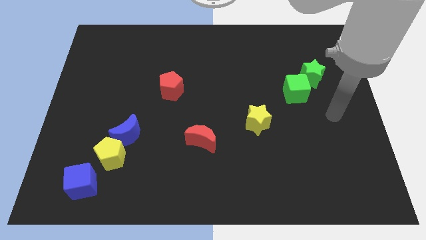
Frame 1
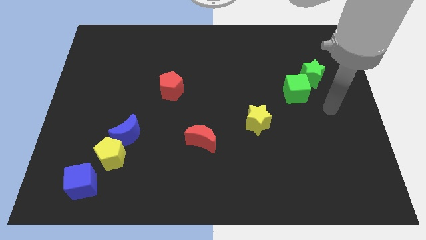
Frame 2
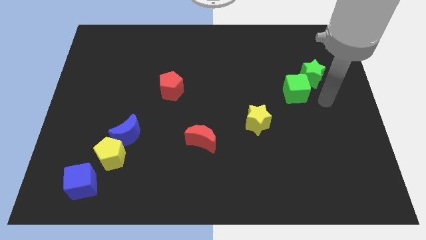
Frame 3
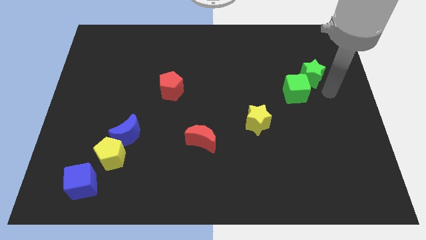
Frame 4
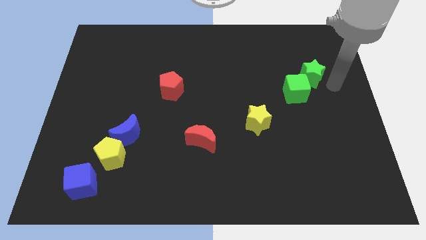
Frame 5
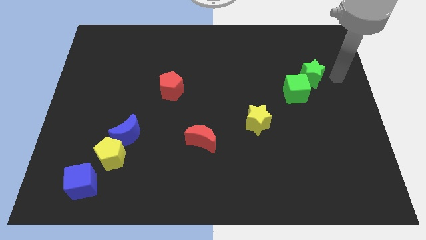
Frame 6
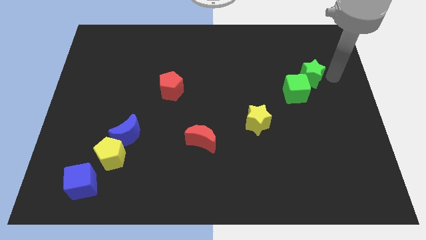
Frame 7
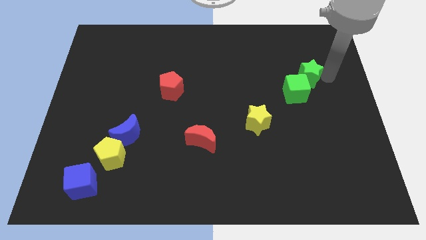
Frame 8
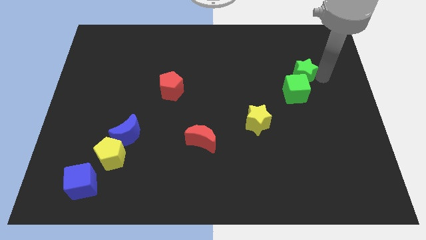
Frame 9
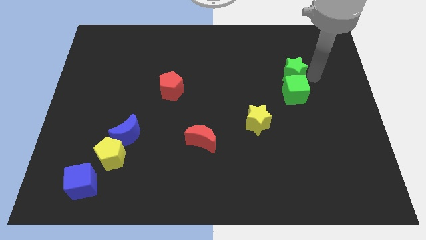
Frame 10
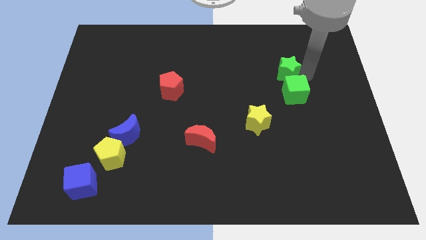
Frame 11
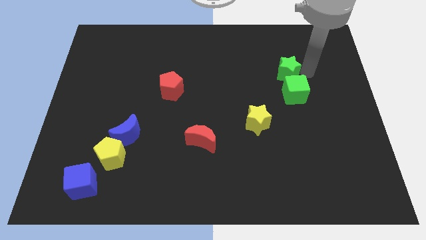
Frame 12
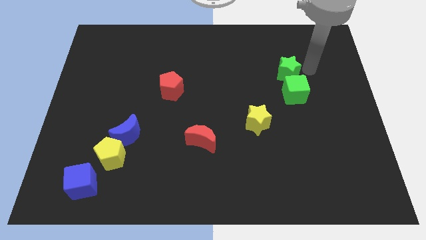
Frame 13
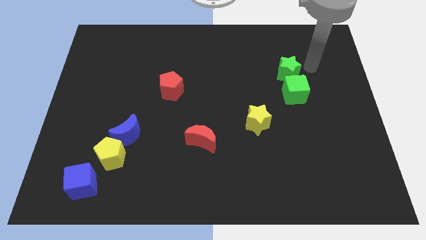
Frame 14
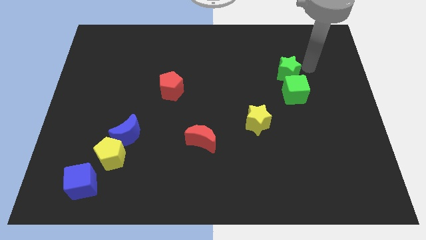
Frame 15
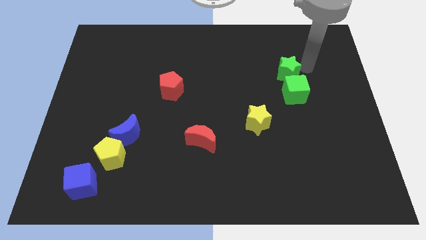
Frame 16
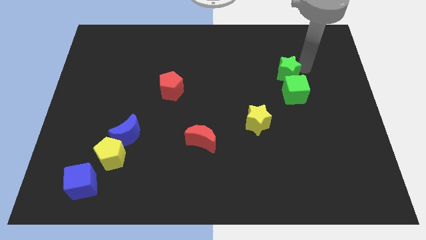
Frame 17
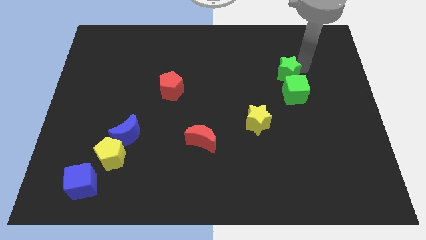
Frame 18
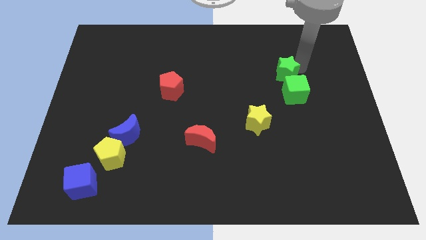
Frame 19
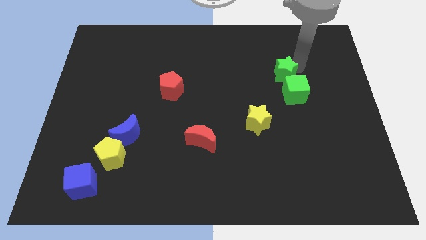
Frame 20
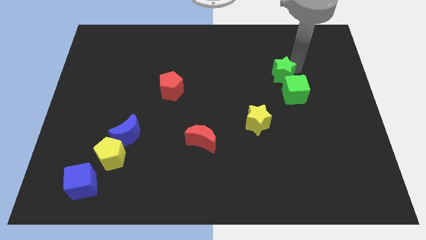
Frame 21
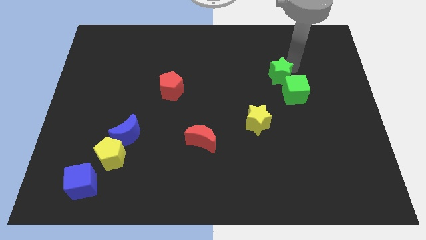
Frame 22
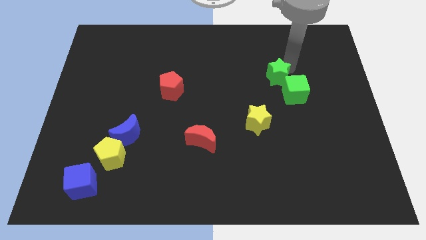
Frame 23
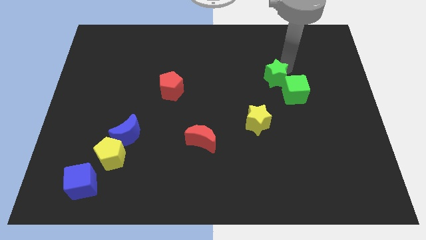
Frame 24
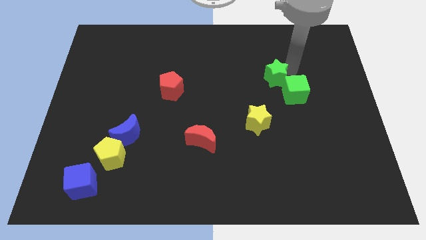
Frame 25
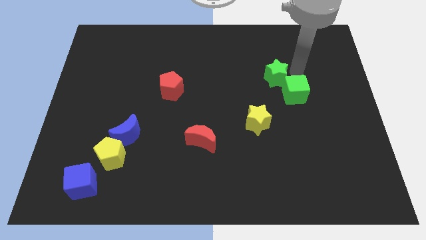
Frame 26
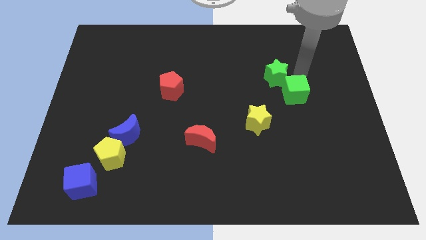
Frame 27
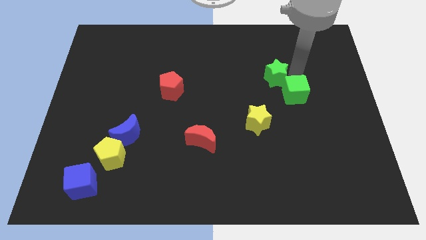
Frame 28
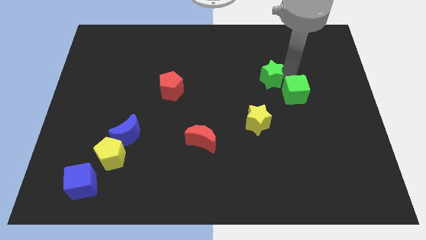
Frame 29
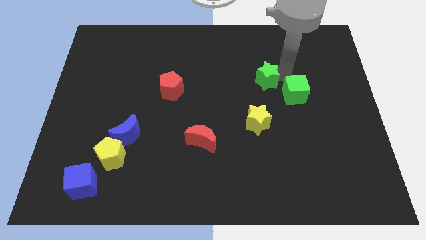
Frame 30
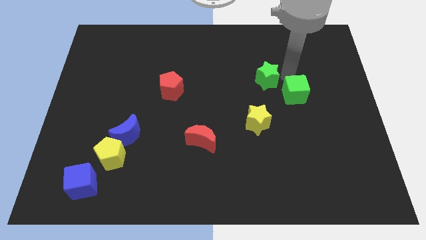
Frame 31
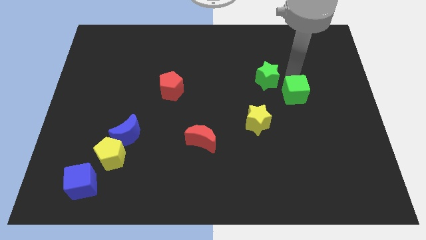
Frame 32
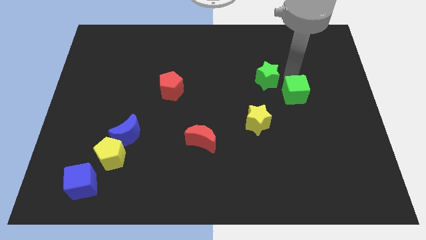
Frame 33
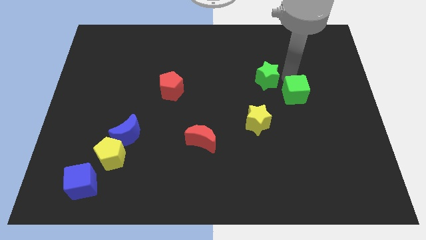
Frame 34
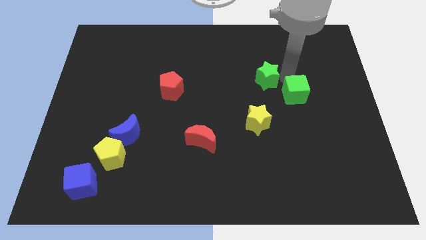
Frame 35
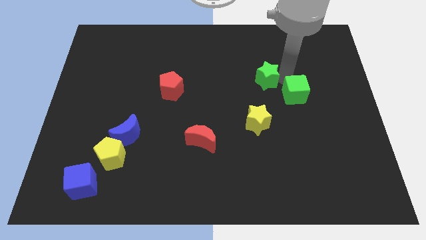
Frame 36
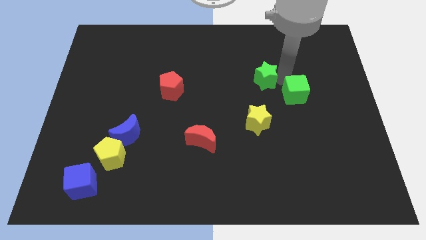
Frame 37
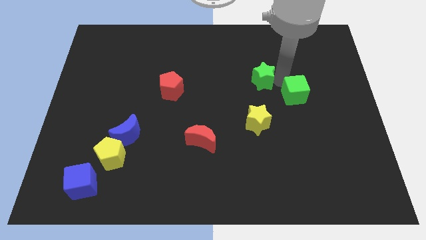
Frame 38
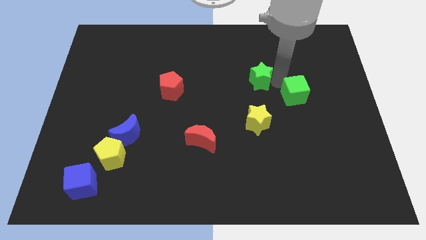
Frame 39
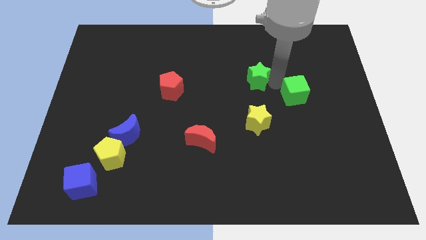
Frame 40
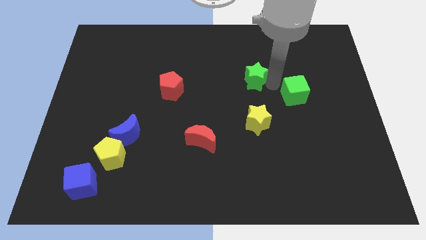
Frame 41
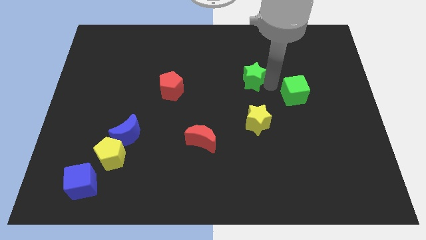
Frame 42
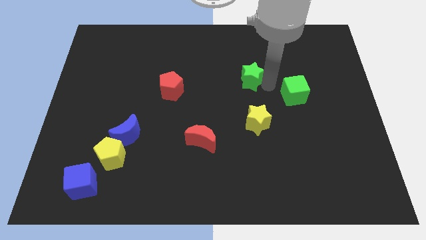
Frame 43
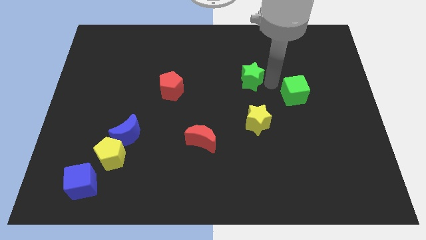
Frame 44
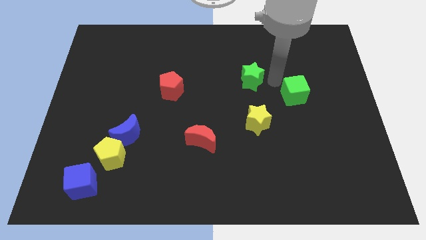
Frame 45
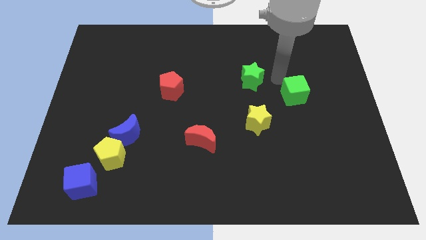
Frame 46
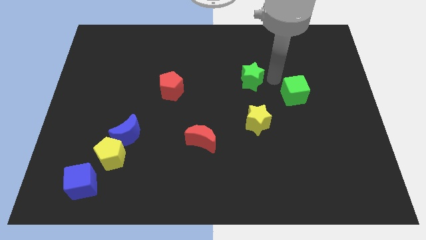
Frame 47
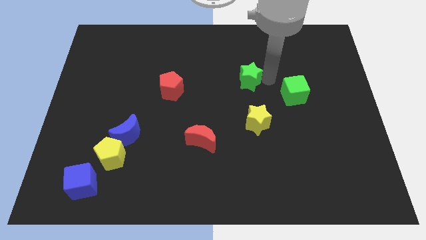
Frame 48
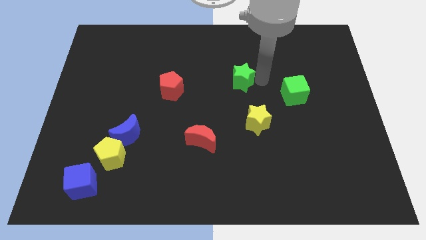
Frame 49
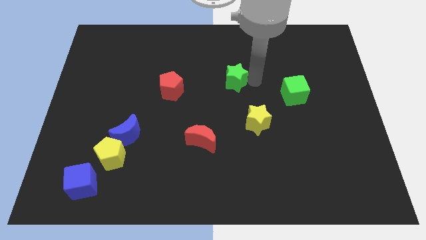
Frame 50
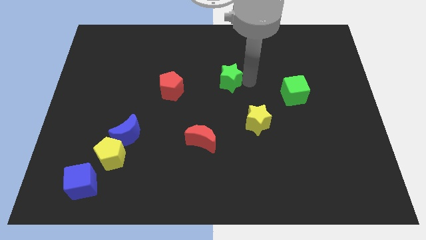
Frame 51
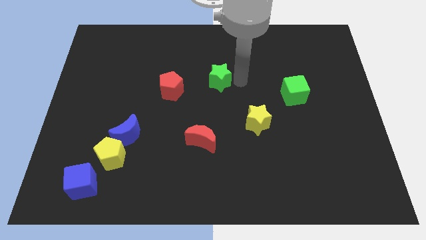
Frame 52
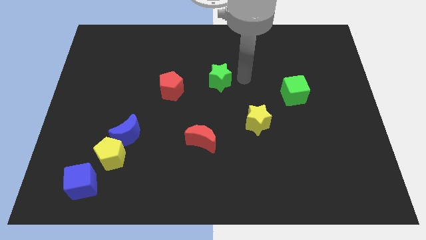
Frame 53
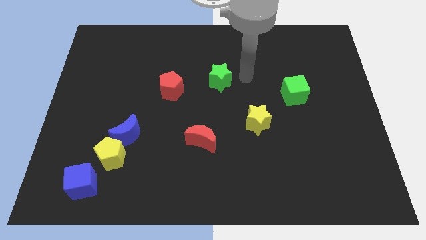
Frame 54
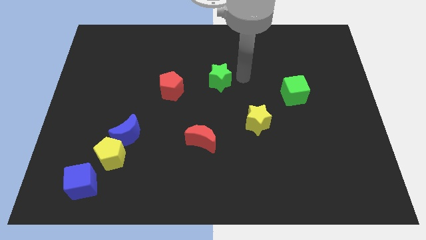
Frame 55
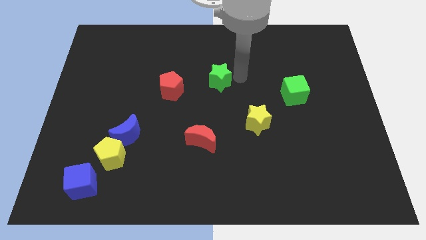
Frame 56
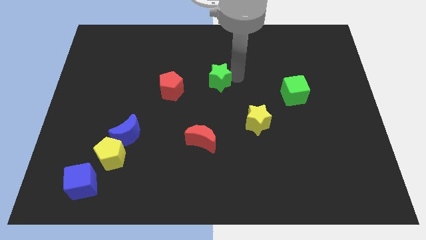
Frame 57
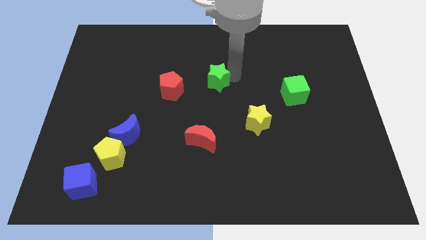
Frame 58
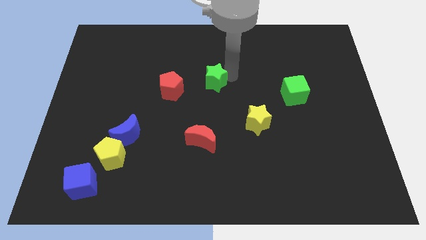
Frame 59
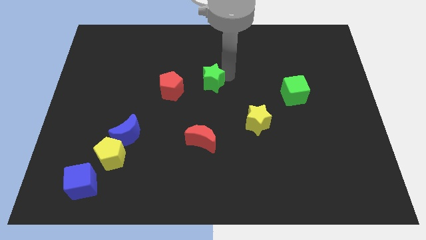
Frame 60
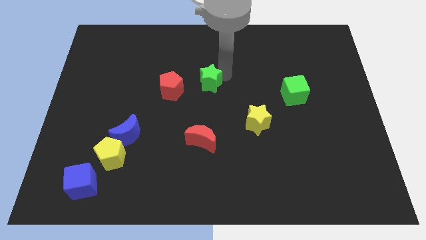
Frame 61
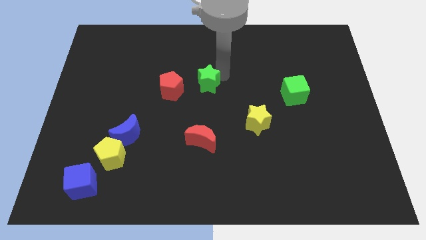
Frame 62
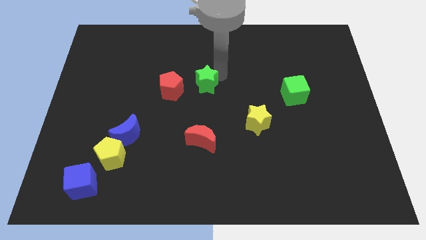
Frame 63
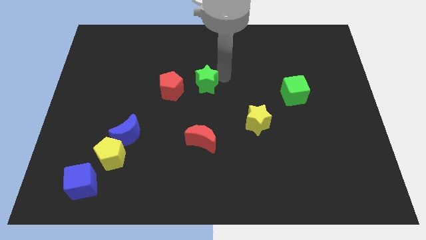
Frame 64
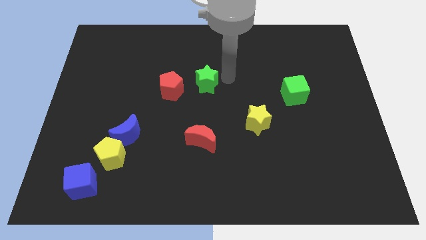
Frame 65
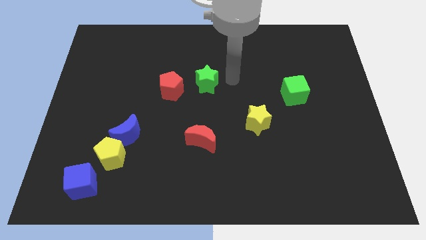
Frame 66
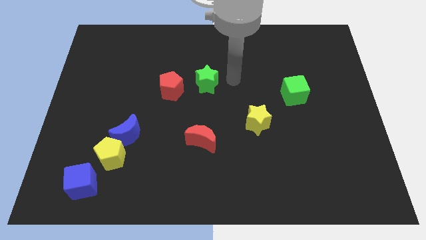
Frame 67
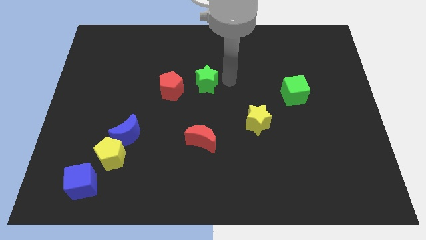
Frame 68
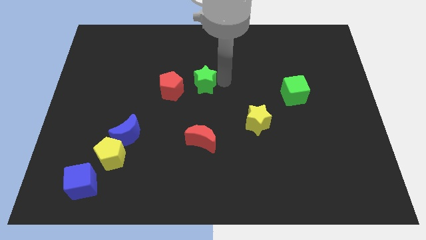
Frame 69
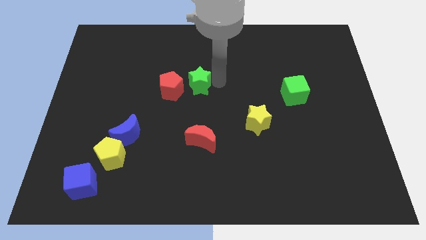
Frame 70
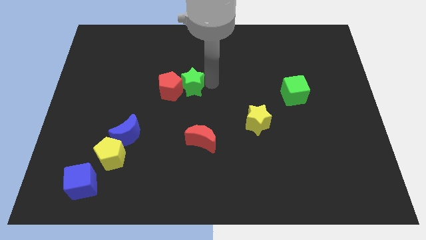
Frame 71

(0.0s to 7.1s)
move the green star next to the red pentagon

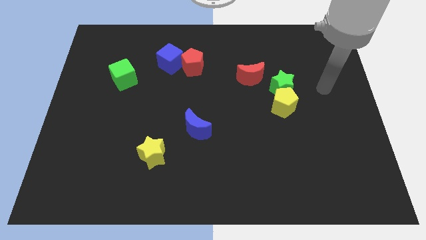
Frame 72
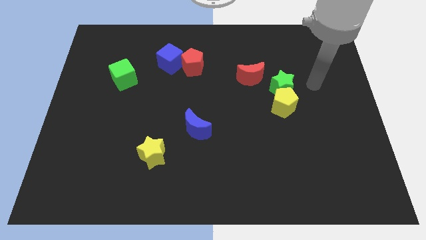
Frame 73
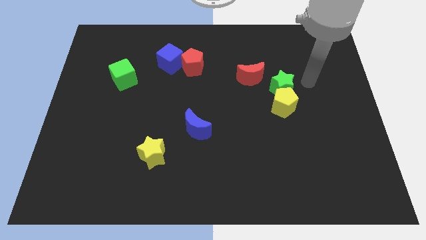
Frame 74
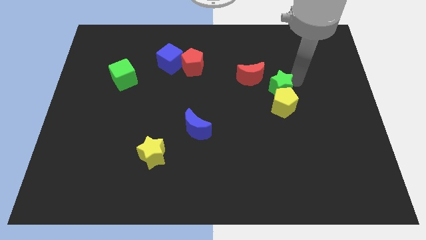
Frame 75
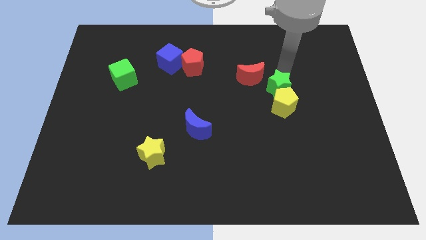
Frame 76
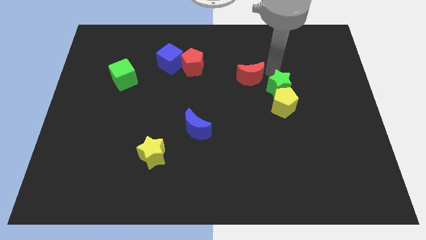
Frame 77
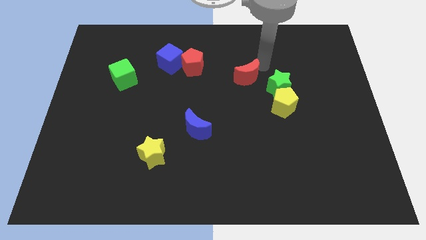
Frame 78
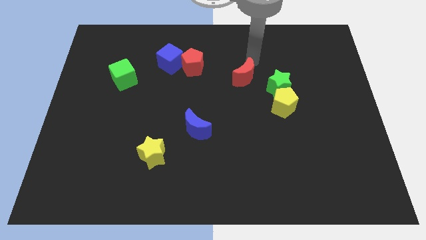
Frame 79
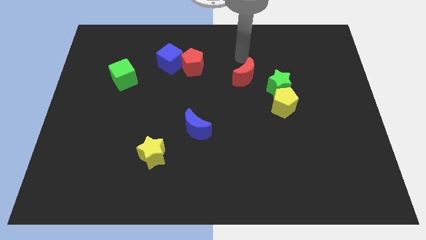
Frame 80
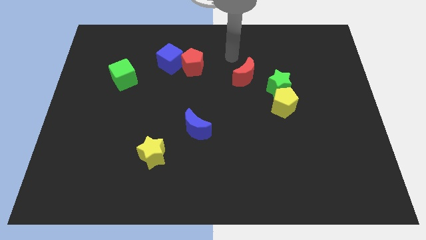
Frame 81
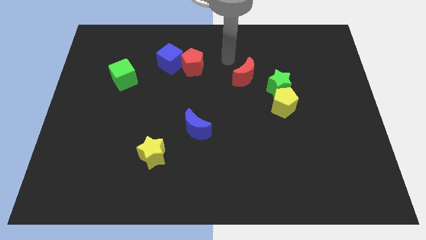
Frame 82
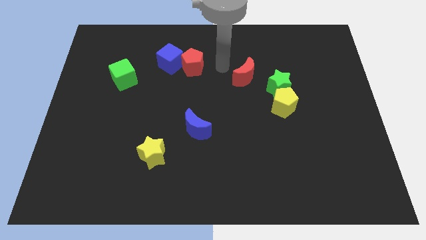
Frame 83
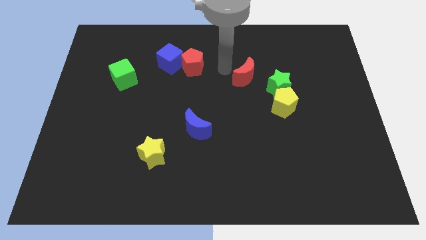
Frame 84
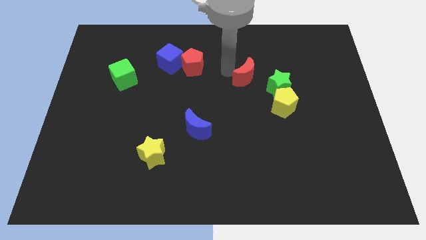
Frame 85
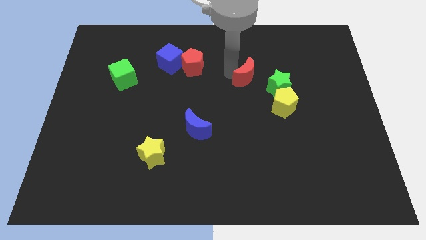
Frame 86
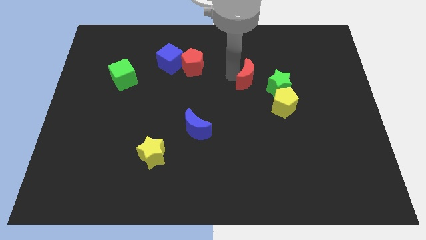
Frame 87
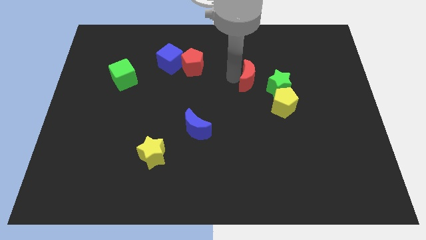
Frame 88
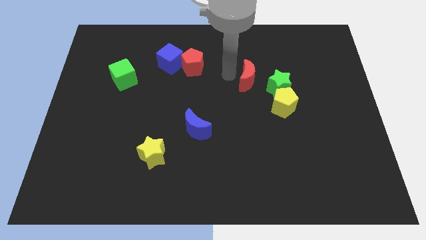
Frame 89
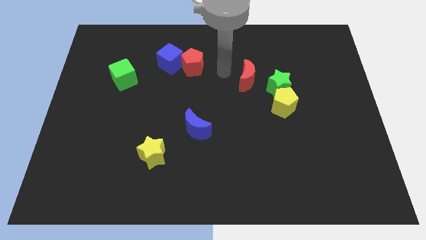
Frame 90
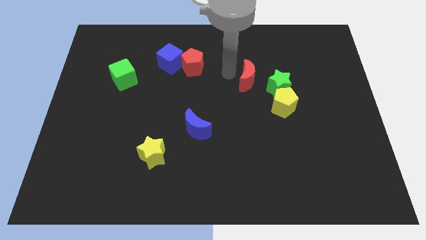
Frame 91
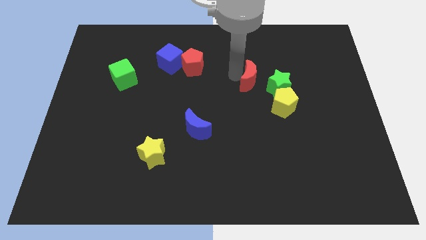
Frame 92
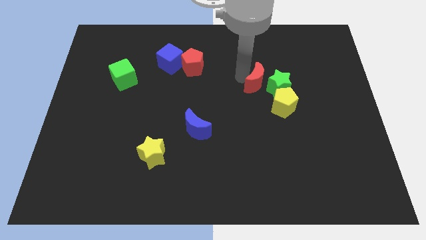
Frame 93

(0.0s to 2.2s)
move the red moon close to the green star
